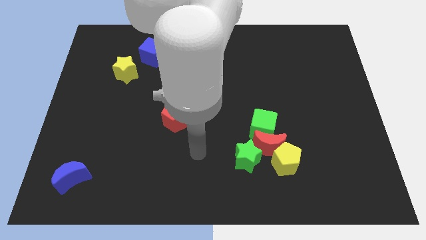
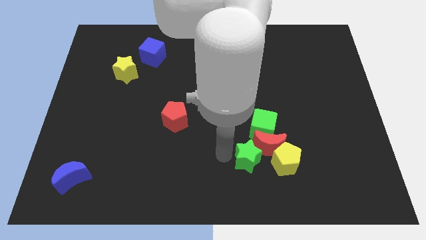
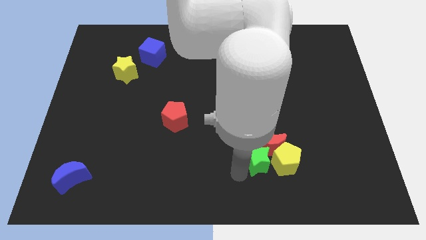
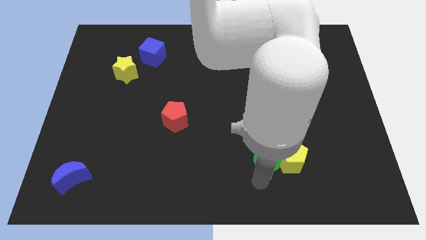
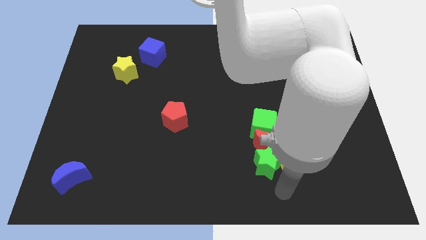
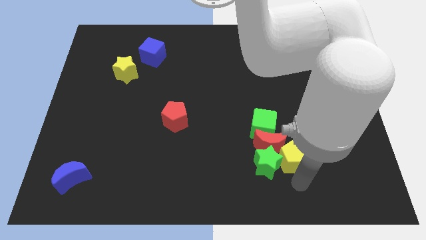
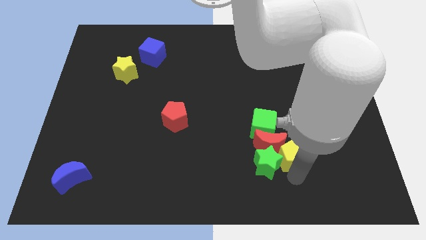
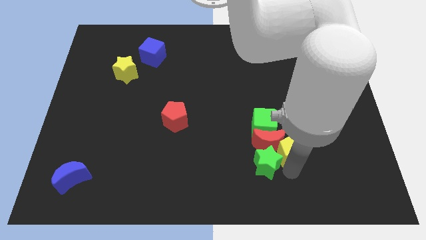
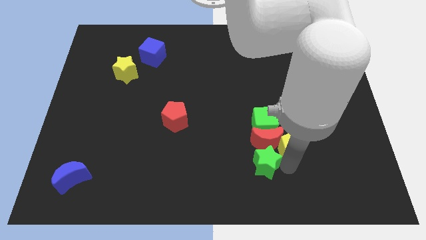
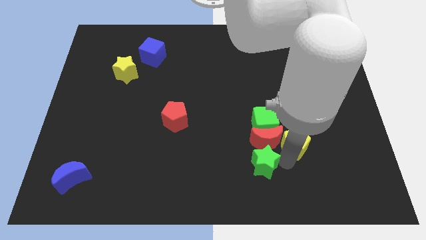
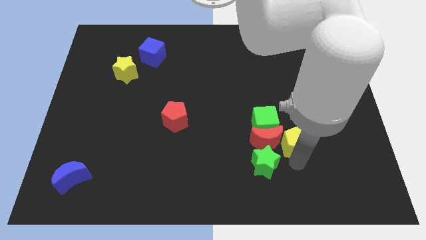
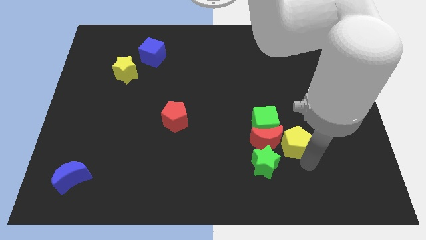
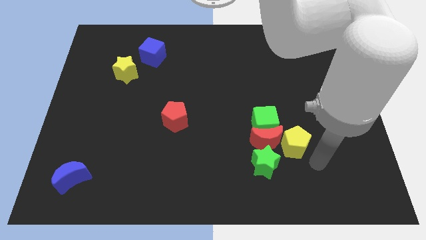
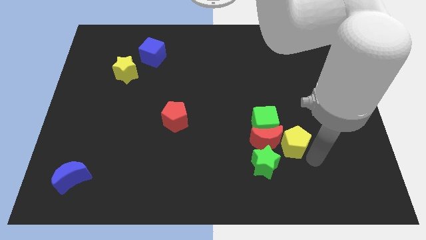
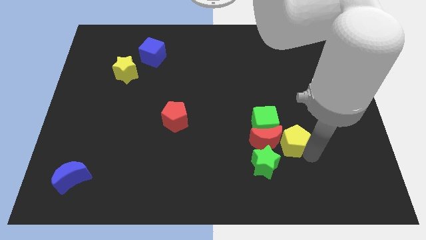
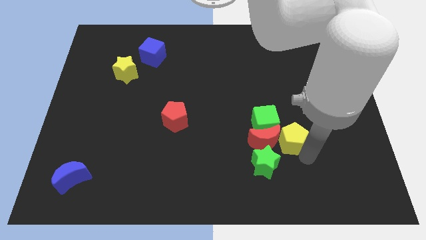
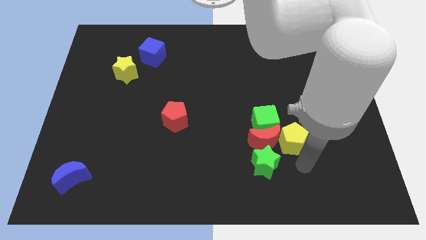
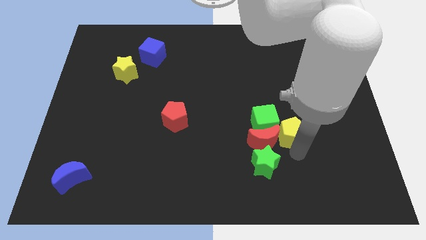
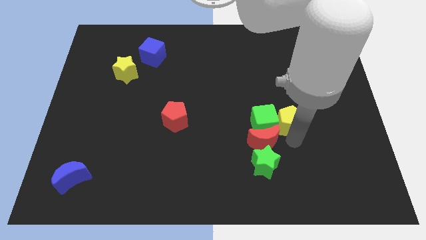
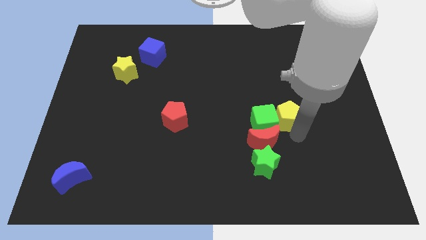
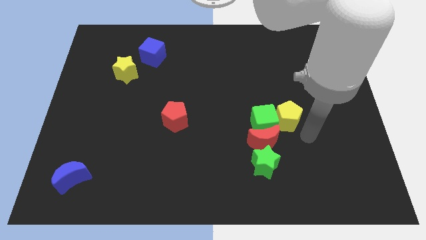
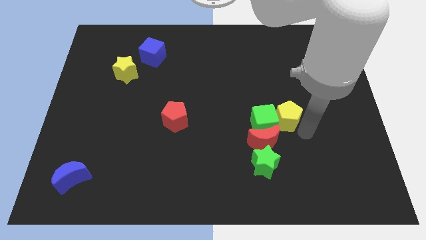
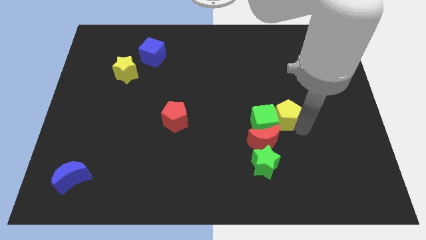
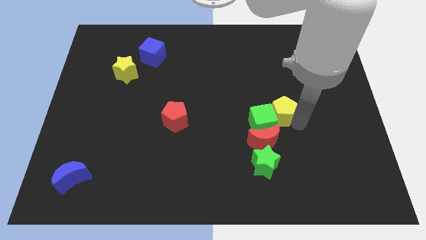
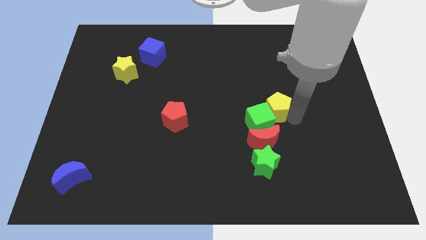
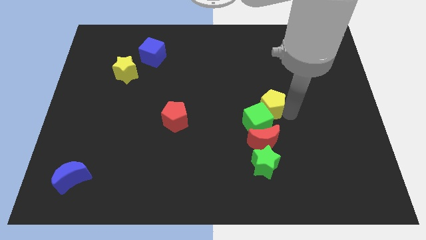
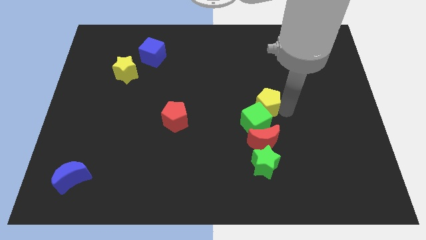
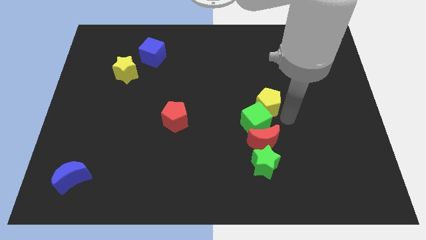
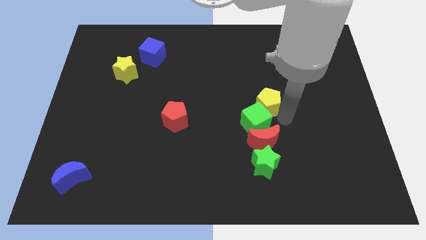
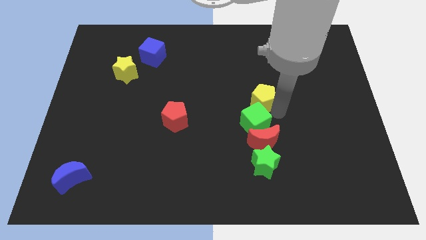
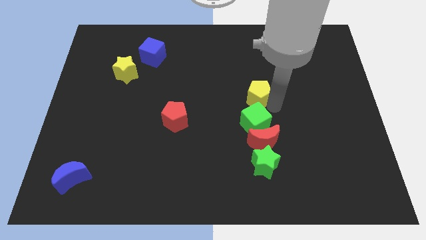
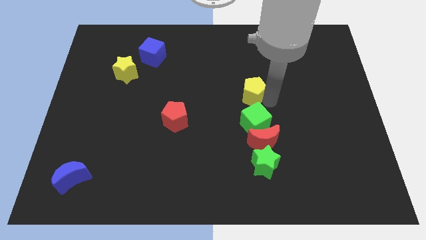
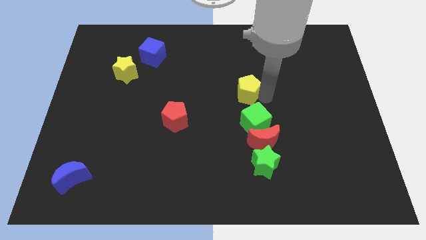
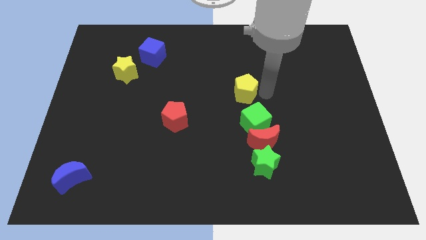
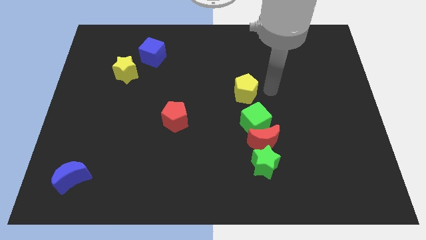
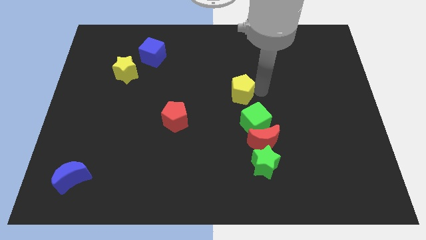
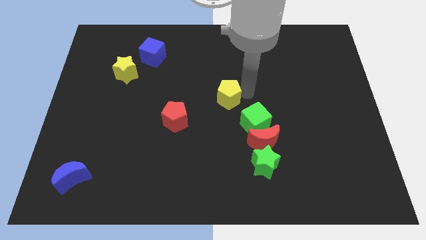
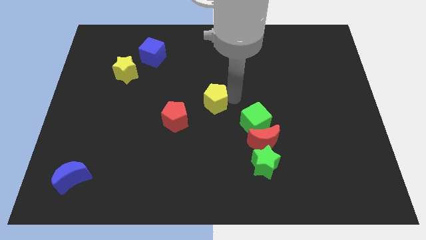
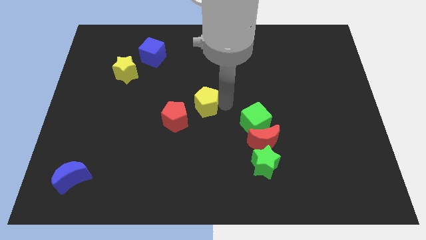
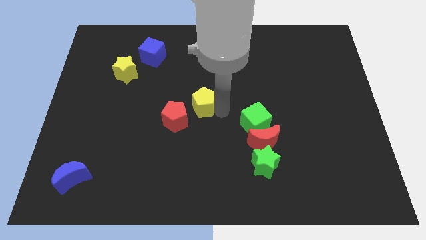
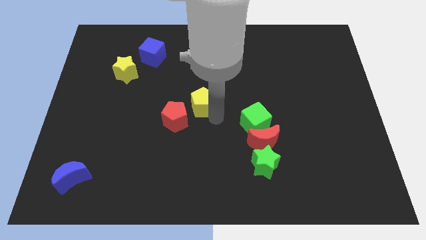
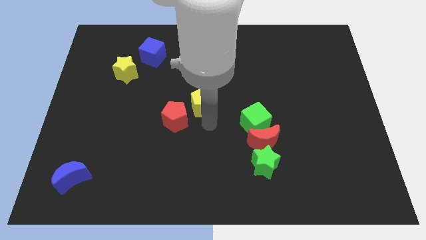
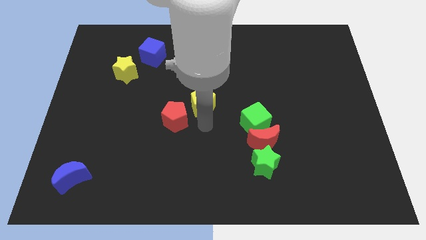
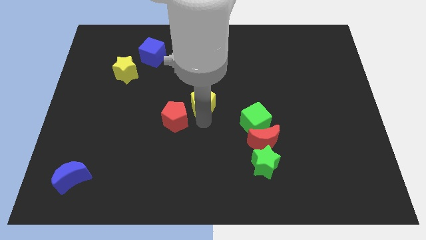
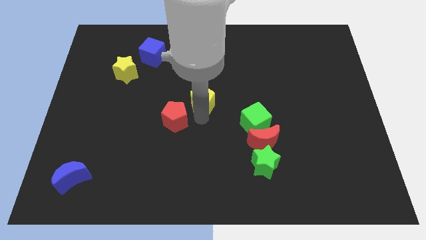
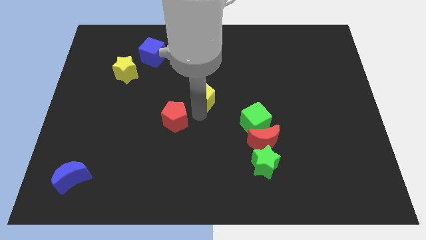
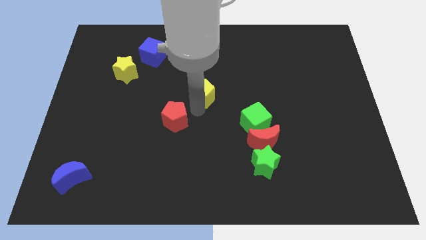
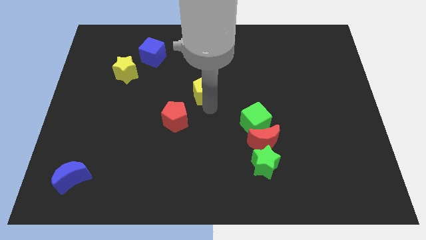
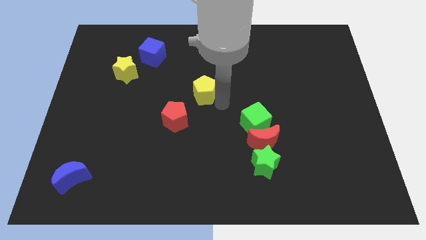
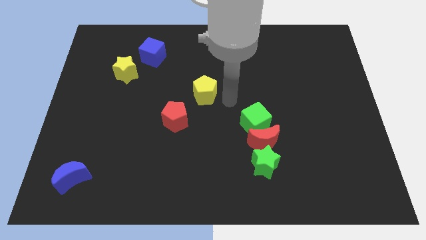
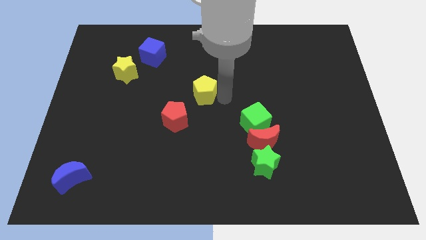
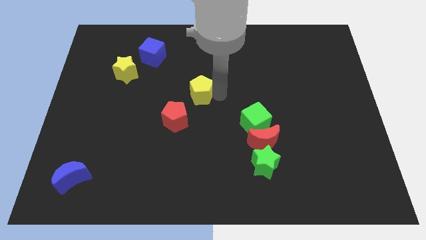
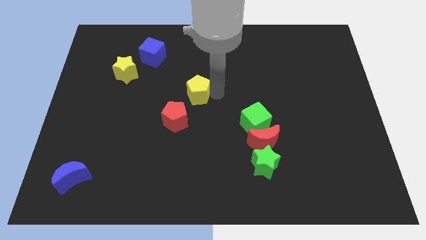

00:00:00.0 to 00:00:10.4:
move the yellow pentagon above the red pentagon
